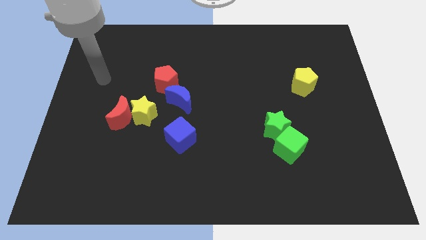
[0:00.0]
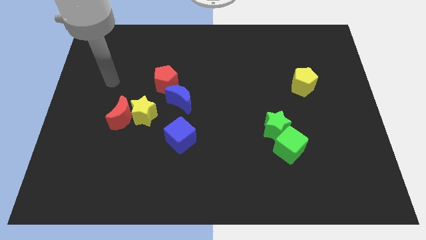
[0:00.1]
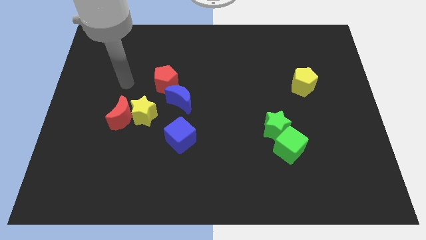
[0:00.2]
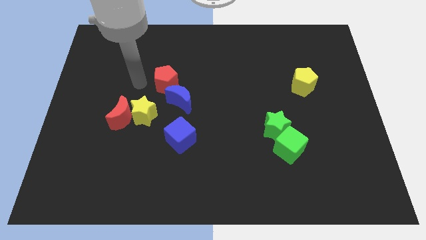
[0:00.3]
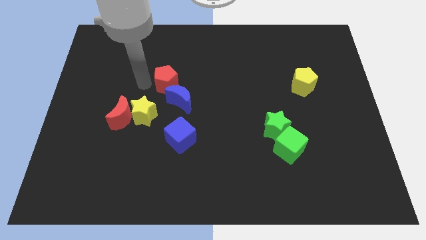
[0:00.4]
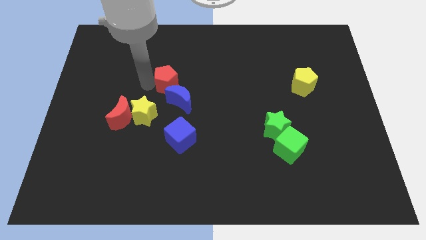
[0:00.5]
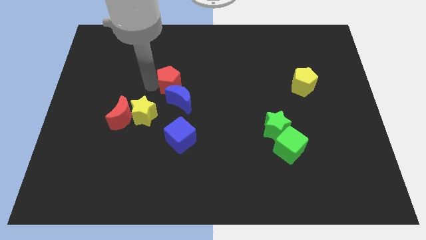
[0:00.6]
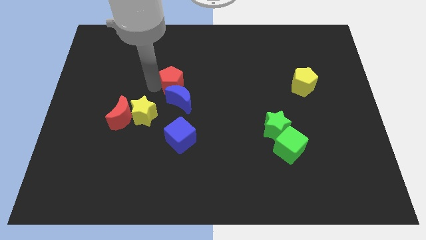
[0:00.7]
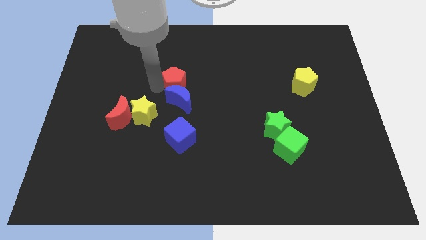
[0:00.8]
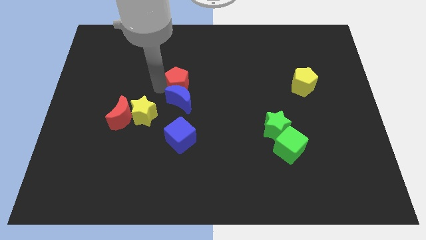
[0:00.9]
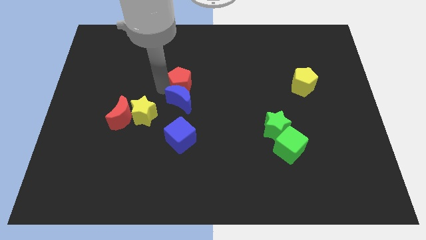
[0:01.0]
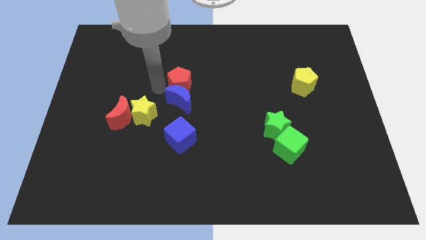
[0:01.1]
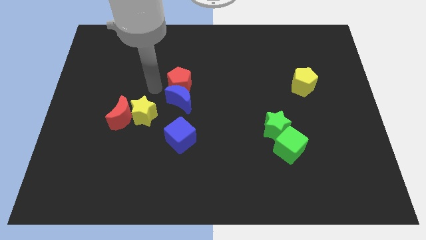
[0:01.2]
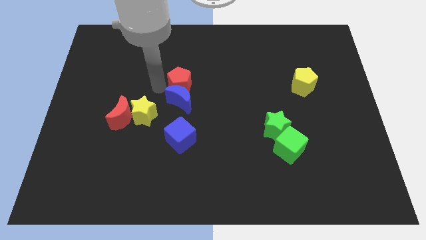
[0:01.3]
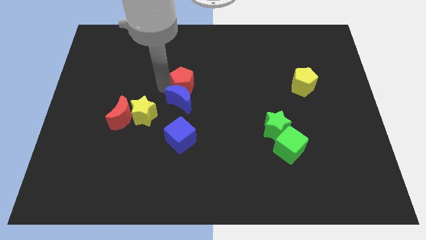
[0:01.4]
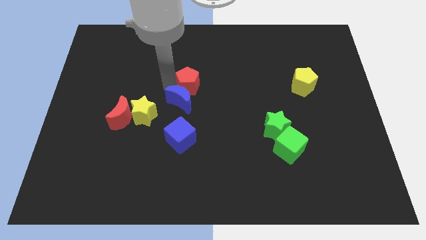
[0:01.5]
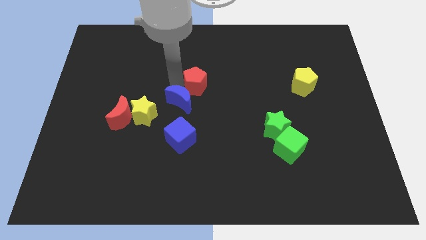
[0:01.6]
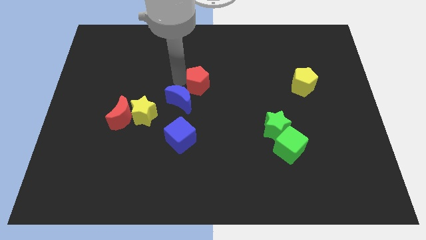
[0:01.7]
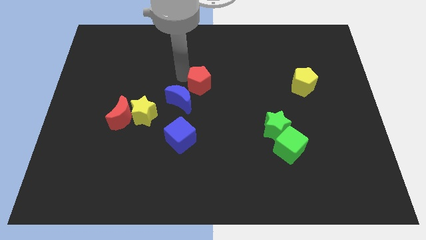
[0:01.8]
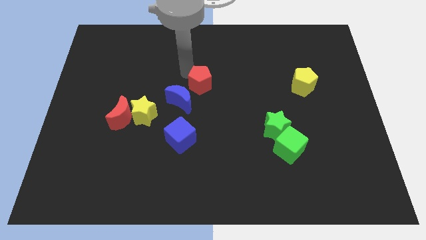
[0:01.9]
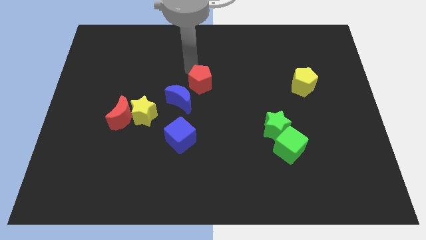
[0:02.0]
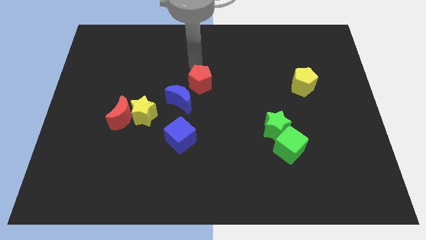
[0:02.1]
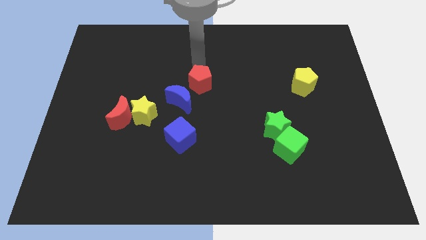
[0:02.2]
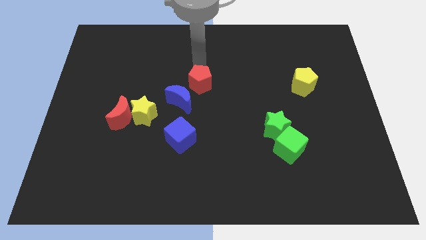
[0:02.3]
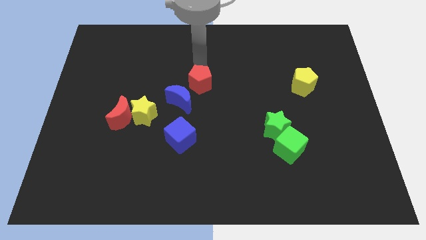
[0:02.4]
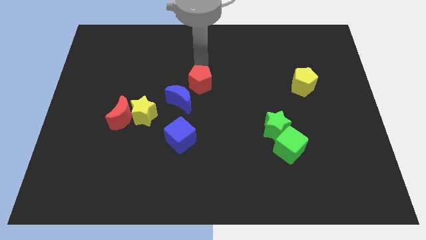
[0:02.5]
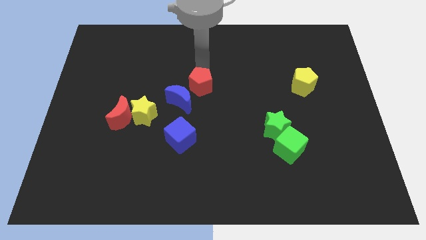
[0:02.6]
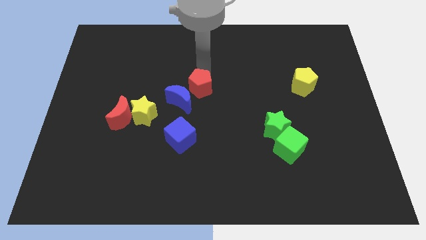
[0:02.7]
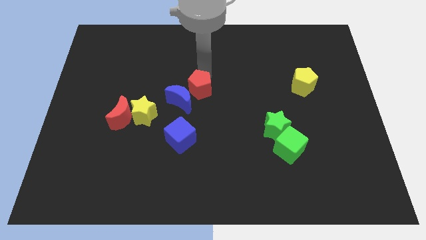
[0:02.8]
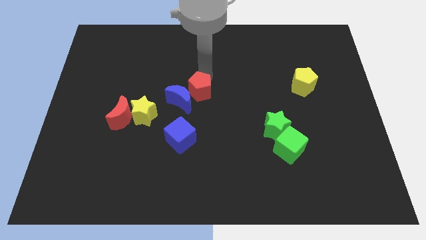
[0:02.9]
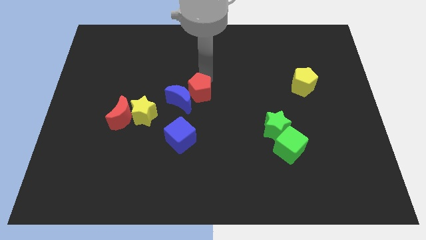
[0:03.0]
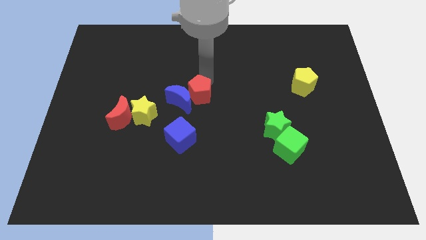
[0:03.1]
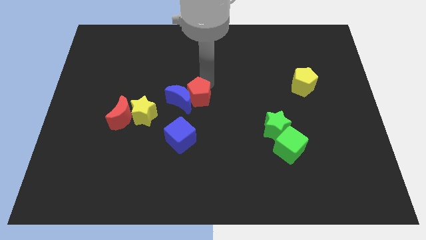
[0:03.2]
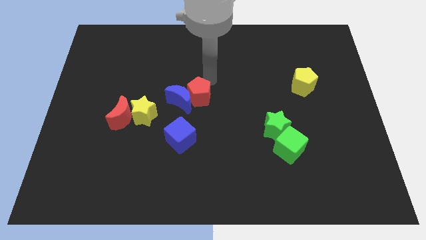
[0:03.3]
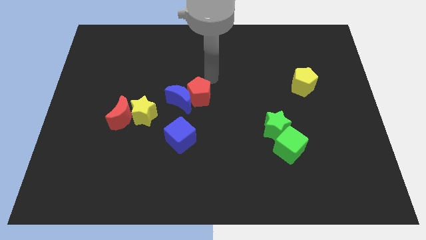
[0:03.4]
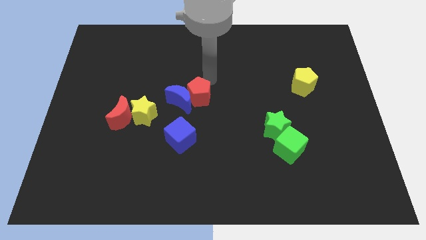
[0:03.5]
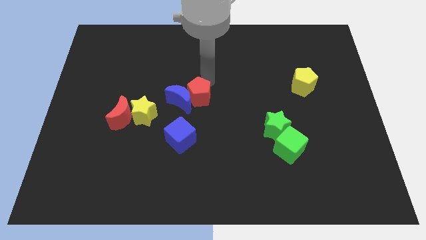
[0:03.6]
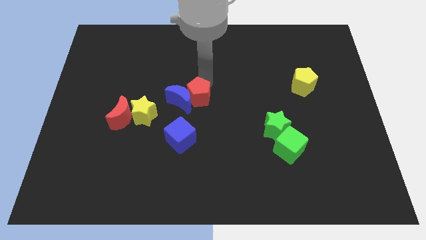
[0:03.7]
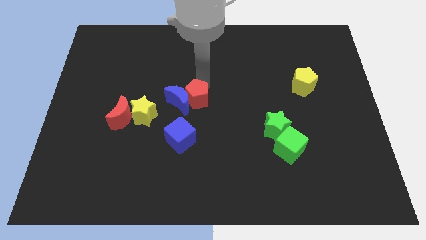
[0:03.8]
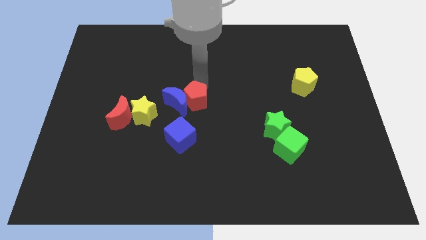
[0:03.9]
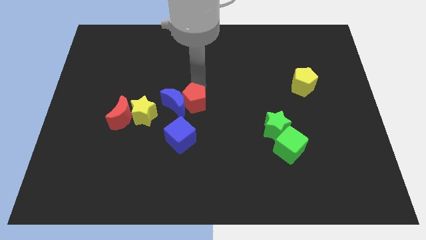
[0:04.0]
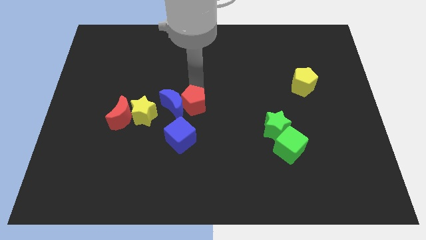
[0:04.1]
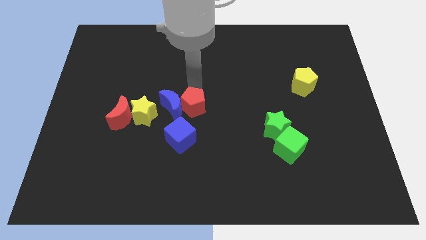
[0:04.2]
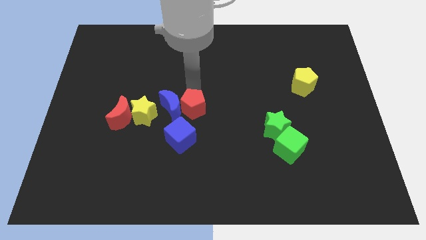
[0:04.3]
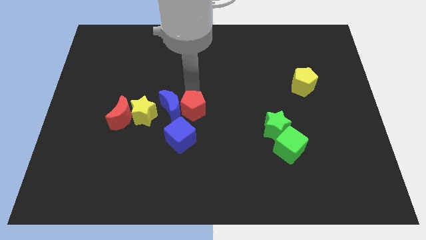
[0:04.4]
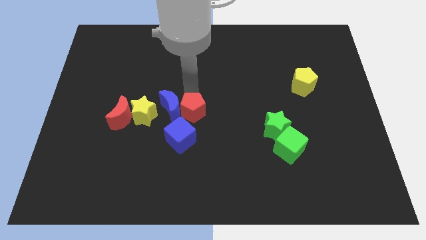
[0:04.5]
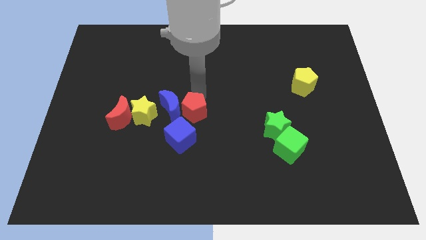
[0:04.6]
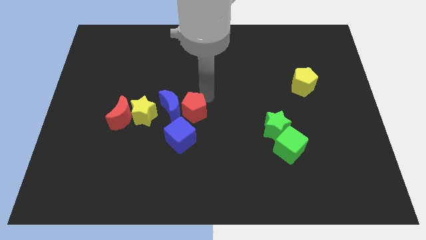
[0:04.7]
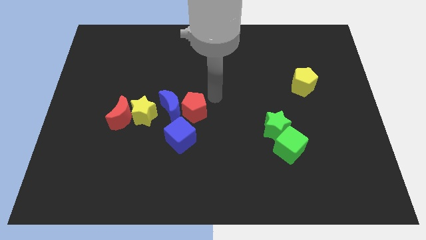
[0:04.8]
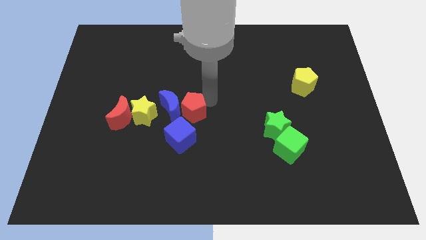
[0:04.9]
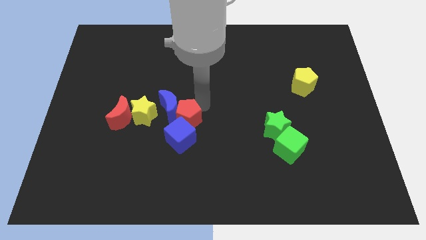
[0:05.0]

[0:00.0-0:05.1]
move the red pentagon to the bottom of the blue moon
